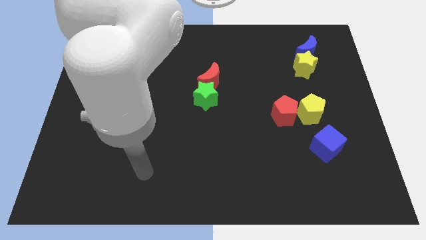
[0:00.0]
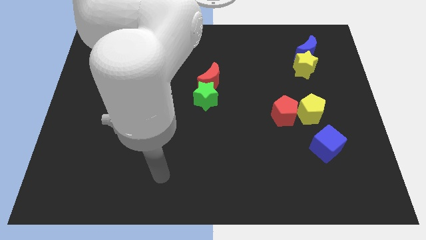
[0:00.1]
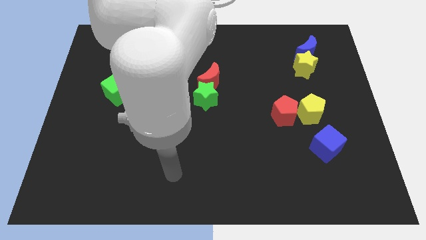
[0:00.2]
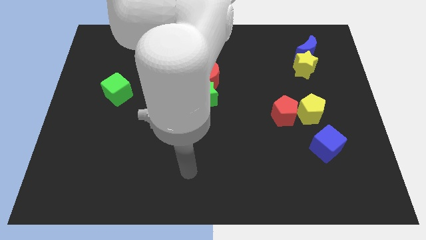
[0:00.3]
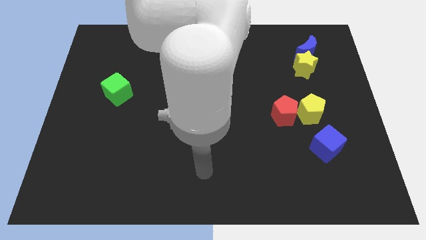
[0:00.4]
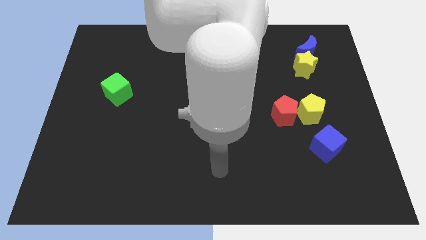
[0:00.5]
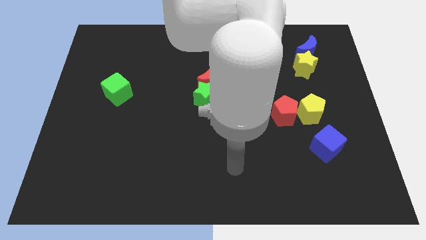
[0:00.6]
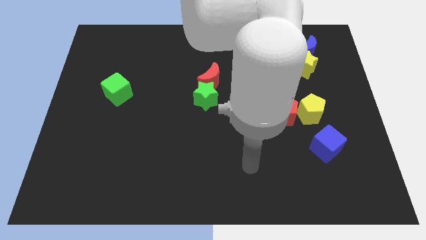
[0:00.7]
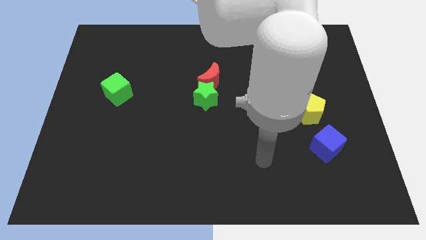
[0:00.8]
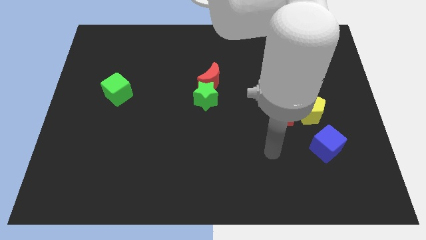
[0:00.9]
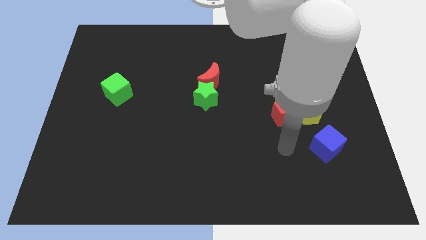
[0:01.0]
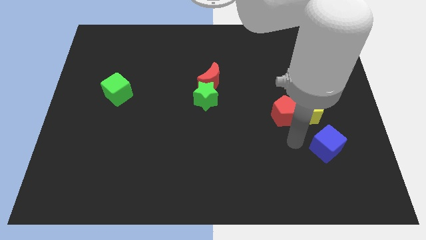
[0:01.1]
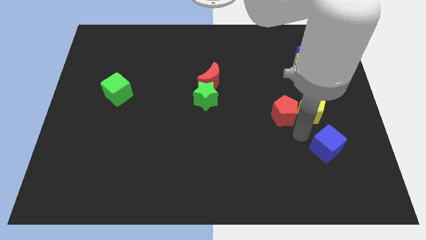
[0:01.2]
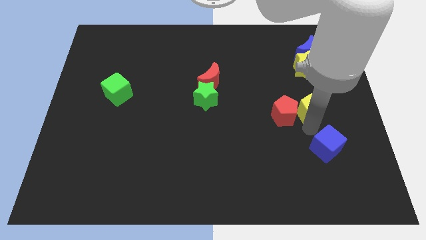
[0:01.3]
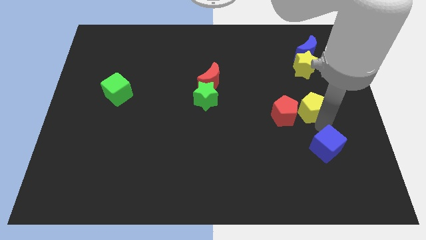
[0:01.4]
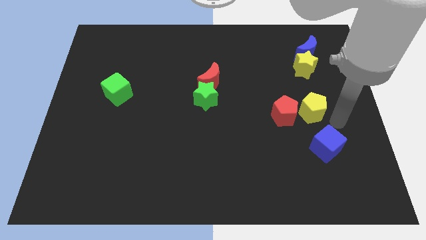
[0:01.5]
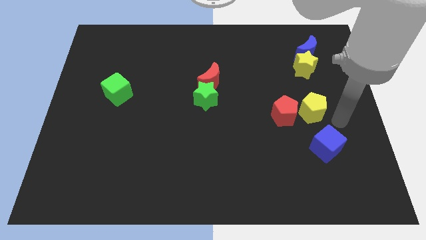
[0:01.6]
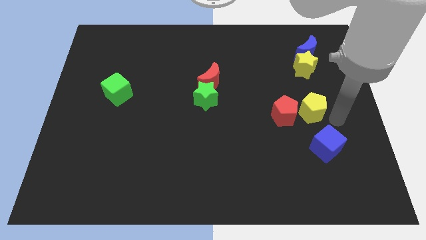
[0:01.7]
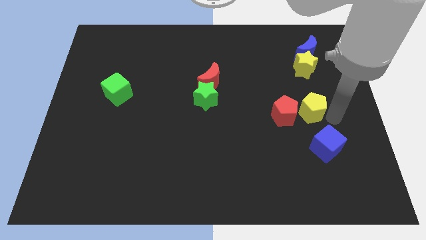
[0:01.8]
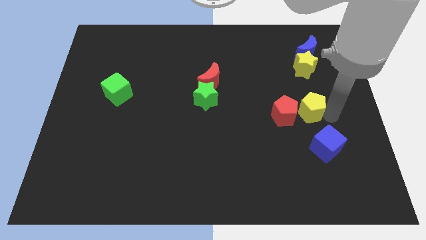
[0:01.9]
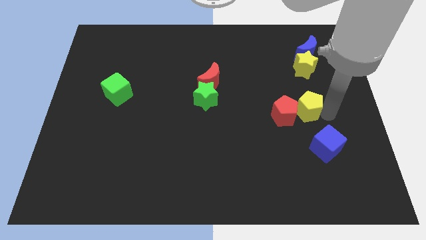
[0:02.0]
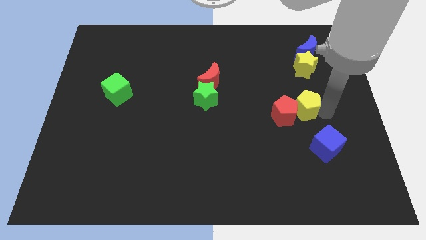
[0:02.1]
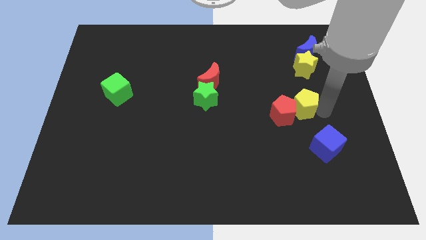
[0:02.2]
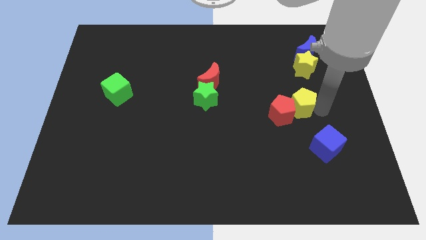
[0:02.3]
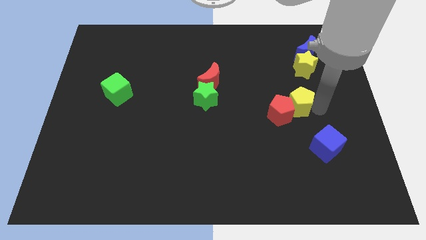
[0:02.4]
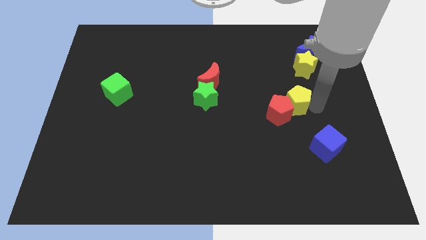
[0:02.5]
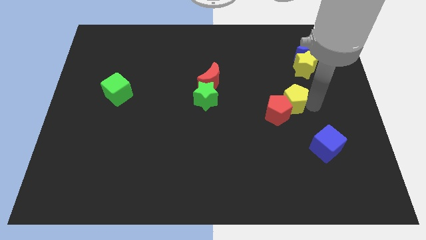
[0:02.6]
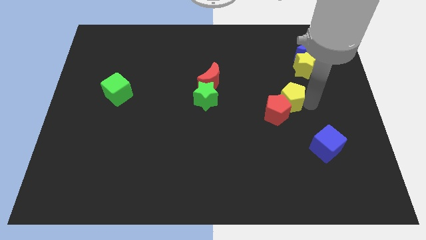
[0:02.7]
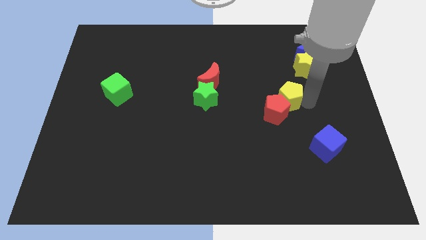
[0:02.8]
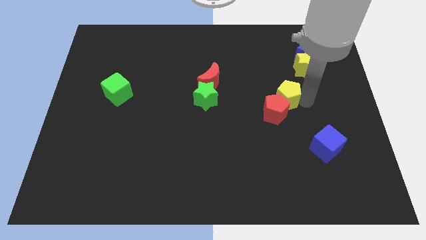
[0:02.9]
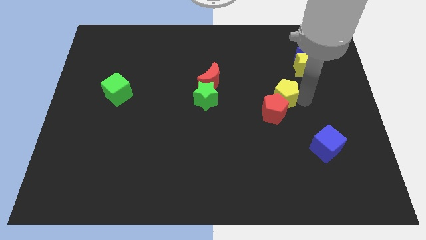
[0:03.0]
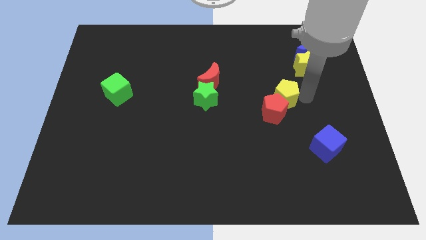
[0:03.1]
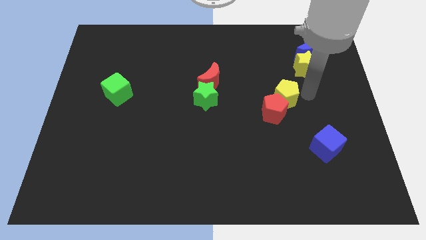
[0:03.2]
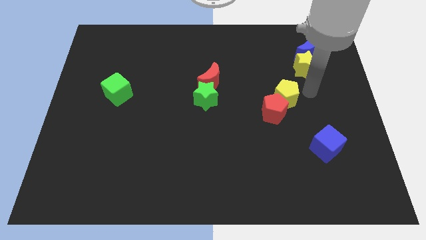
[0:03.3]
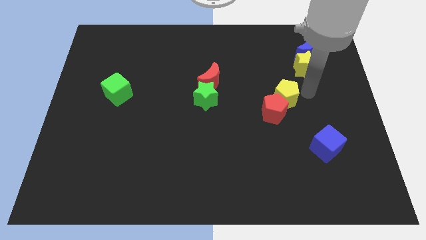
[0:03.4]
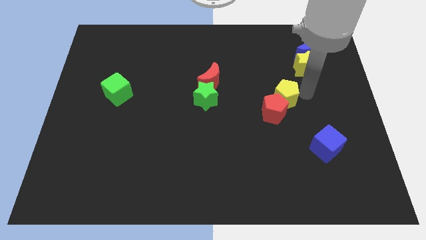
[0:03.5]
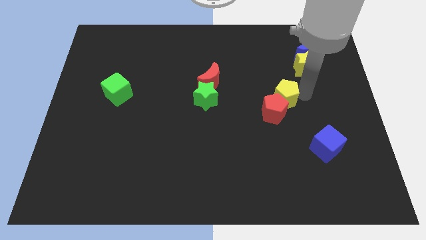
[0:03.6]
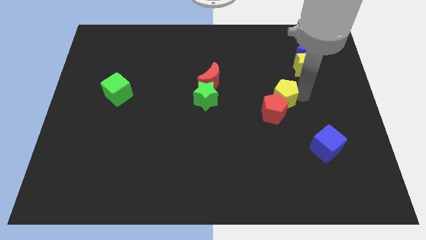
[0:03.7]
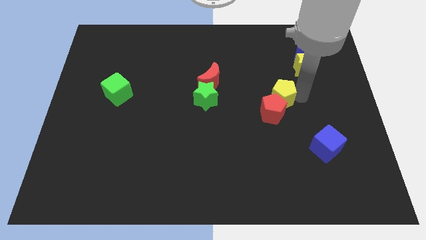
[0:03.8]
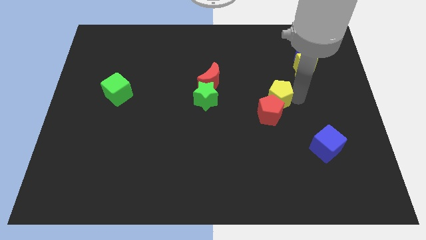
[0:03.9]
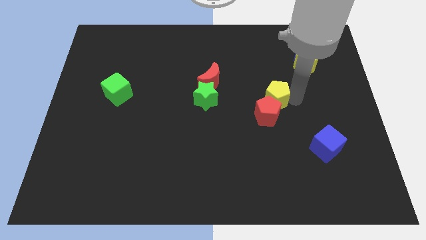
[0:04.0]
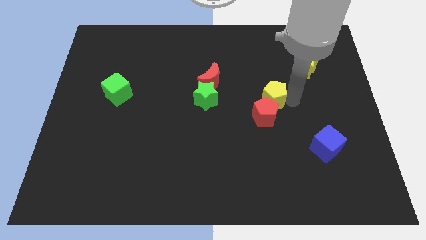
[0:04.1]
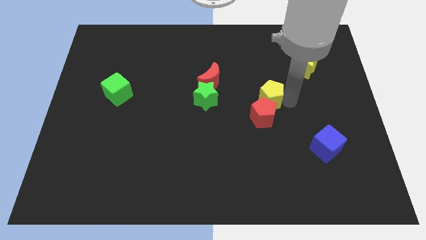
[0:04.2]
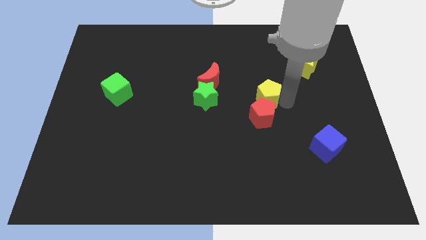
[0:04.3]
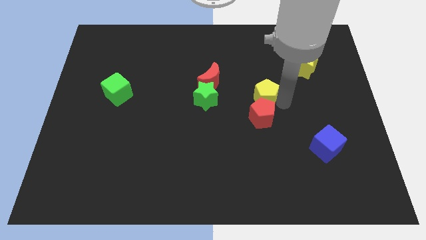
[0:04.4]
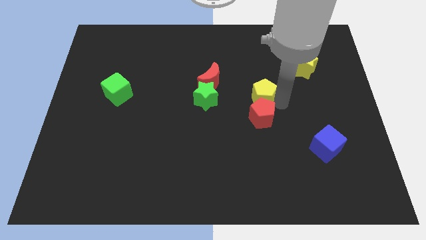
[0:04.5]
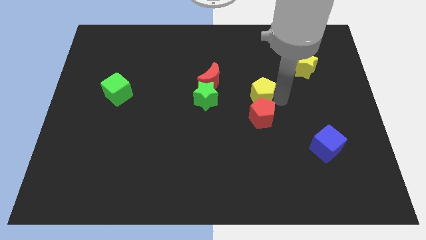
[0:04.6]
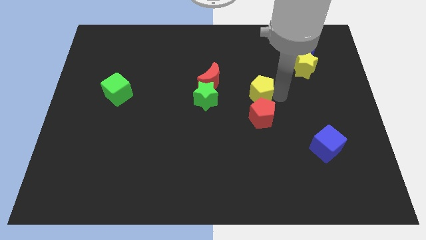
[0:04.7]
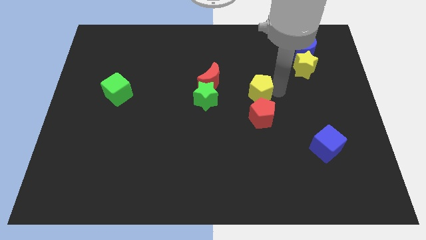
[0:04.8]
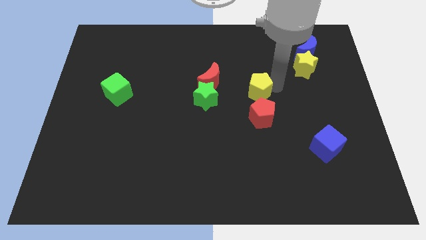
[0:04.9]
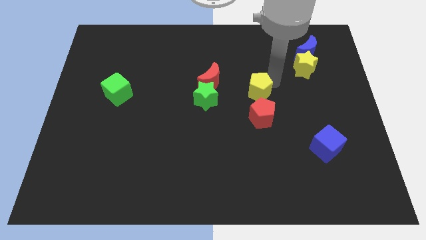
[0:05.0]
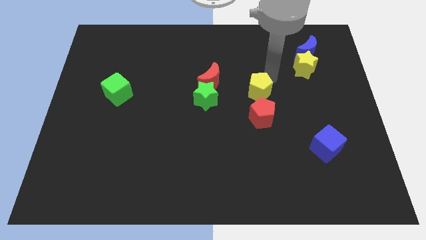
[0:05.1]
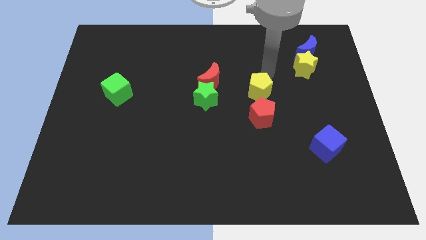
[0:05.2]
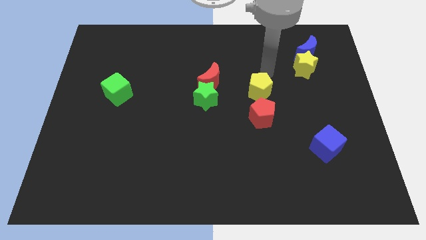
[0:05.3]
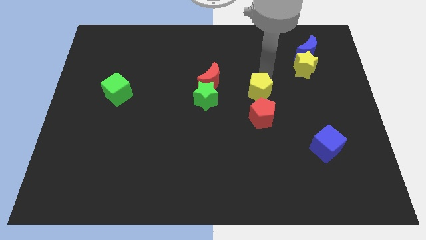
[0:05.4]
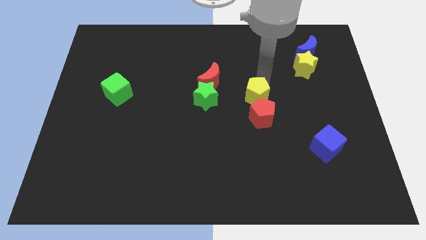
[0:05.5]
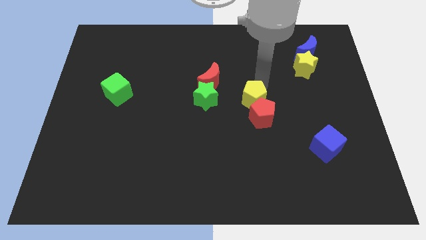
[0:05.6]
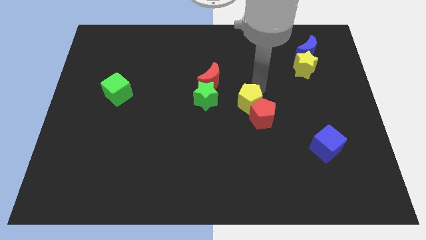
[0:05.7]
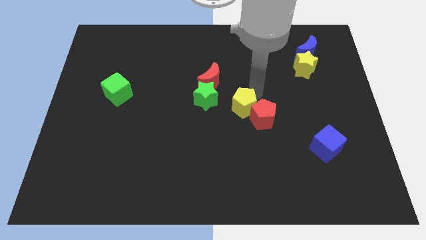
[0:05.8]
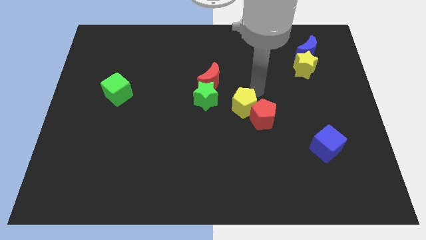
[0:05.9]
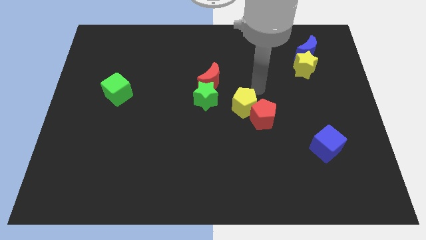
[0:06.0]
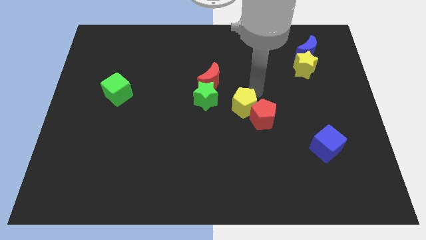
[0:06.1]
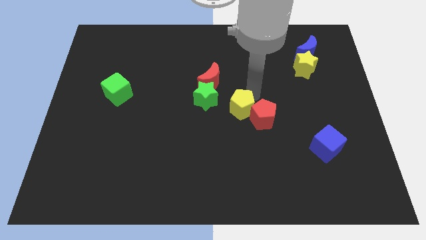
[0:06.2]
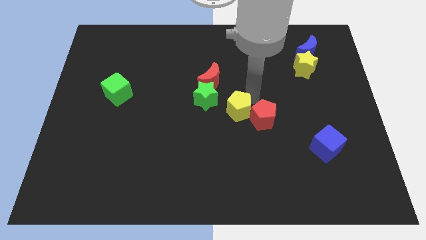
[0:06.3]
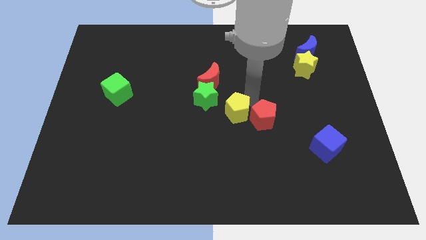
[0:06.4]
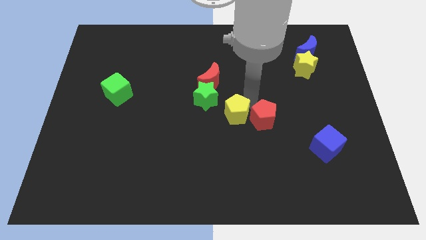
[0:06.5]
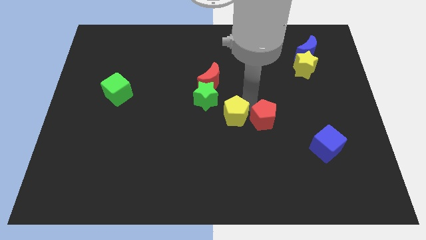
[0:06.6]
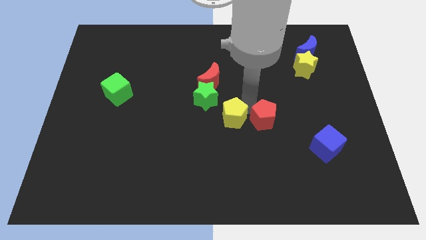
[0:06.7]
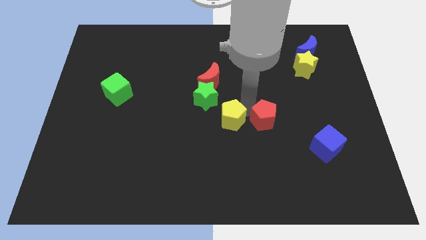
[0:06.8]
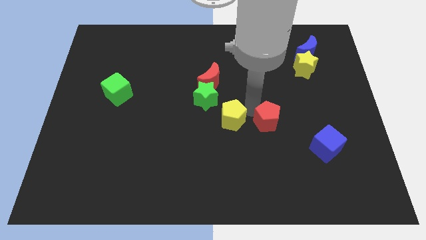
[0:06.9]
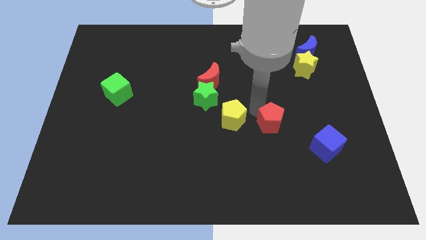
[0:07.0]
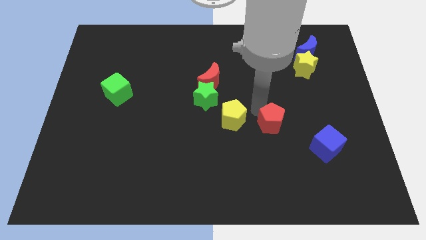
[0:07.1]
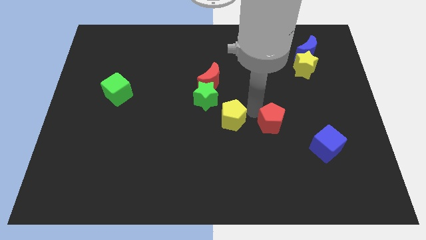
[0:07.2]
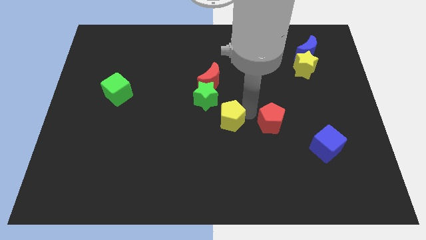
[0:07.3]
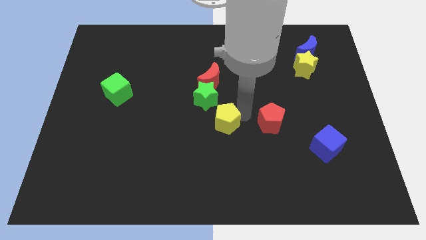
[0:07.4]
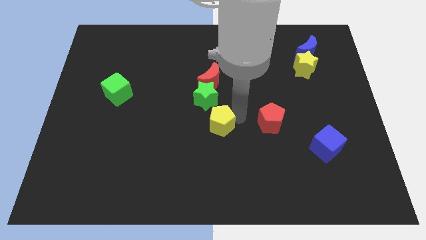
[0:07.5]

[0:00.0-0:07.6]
push the yellow pentagon to the left

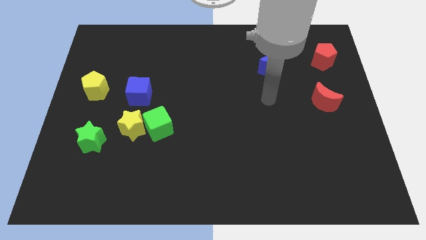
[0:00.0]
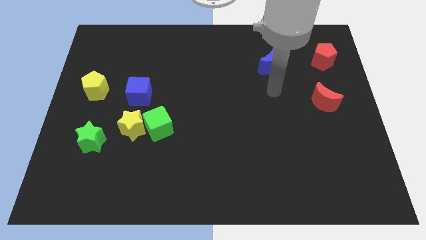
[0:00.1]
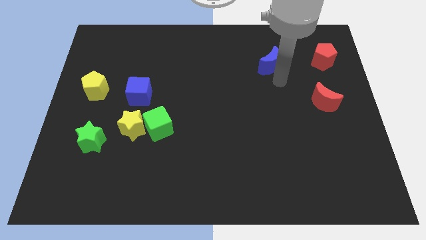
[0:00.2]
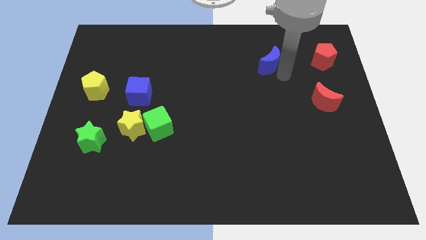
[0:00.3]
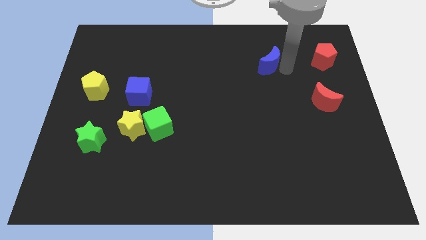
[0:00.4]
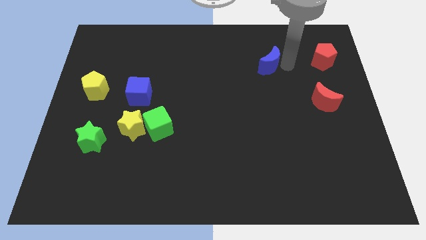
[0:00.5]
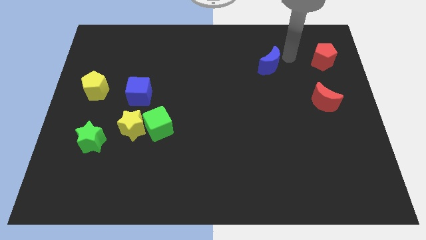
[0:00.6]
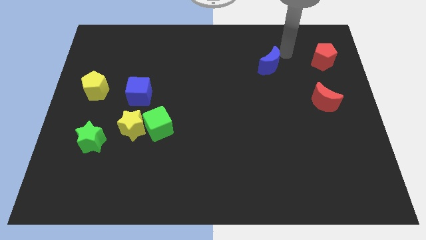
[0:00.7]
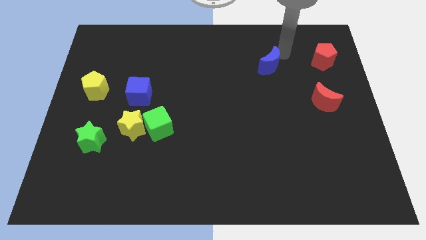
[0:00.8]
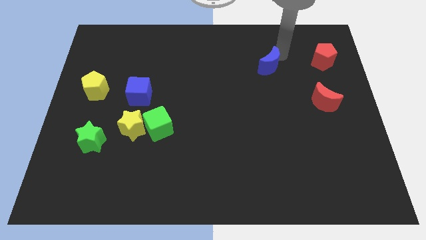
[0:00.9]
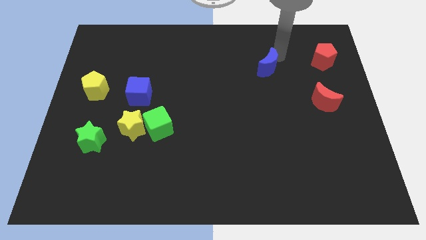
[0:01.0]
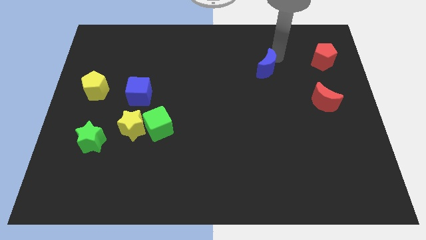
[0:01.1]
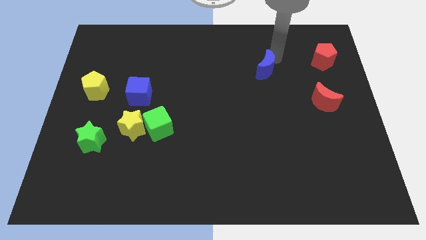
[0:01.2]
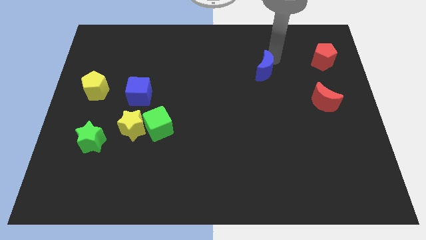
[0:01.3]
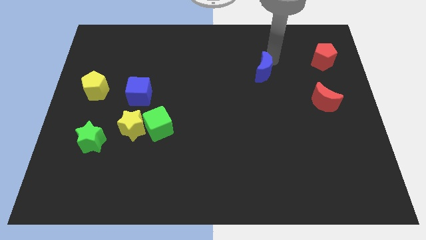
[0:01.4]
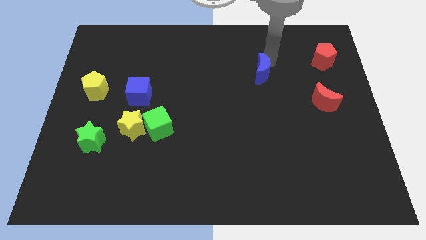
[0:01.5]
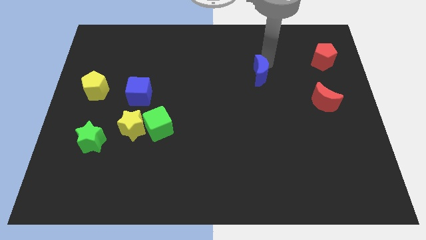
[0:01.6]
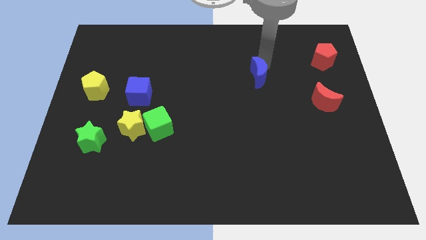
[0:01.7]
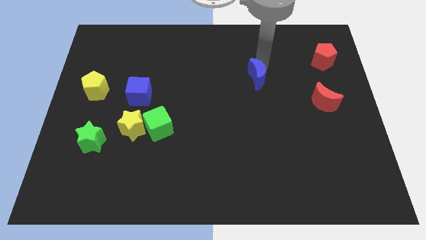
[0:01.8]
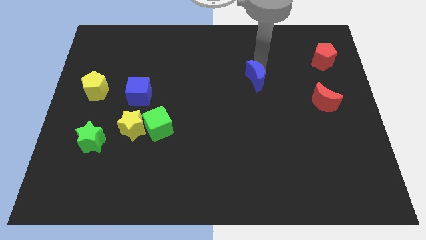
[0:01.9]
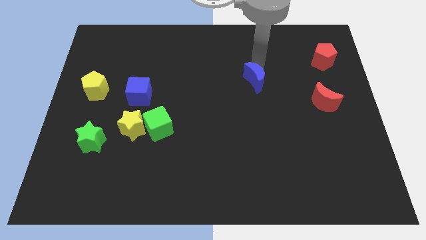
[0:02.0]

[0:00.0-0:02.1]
move the blue moon downwards and to the left diagonally a little bit
